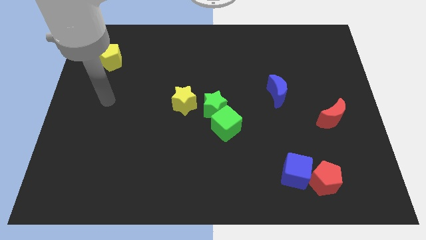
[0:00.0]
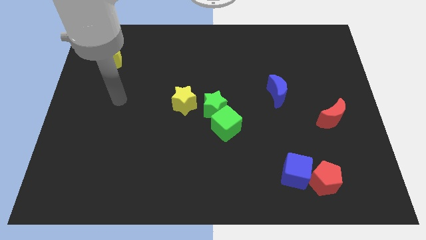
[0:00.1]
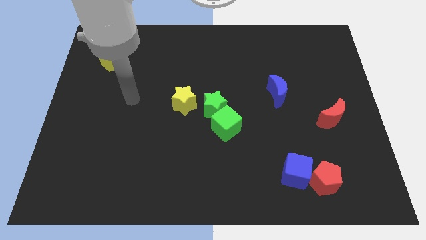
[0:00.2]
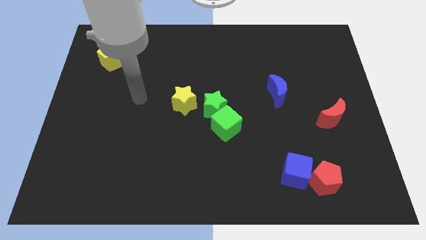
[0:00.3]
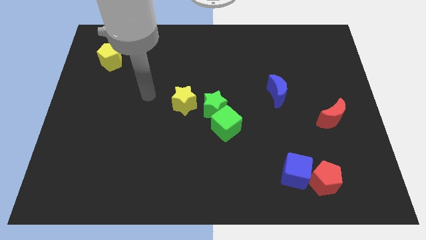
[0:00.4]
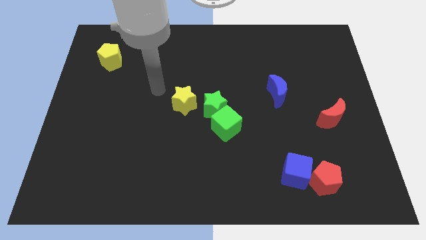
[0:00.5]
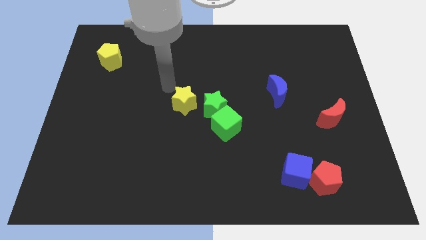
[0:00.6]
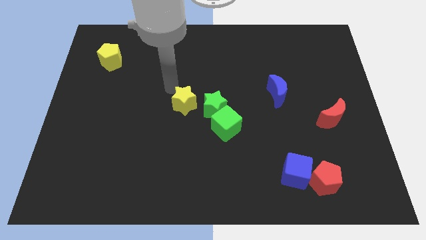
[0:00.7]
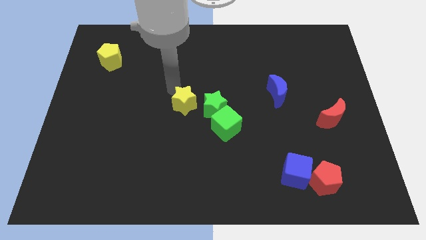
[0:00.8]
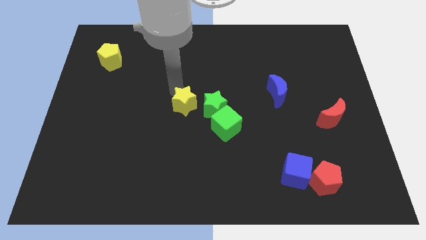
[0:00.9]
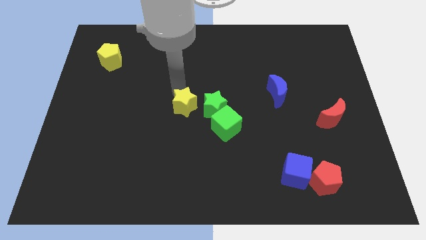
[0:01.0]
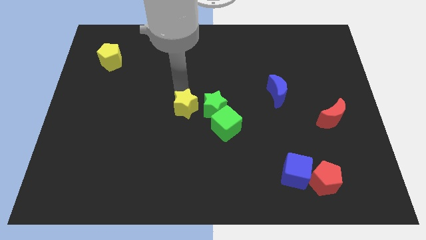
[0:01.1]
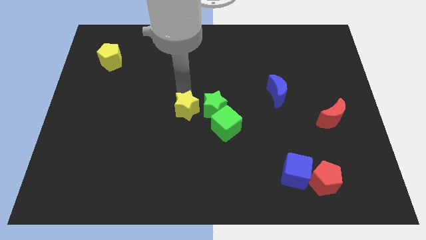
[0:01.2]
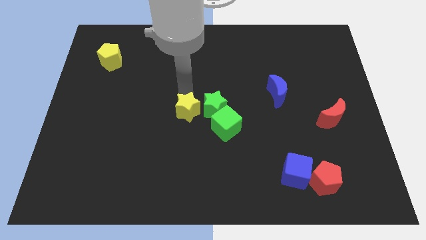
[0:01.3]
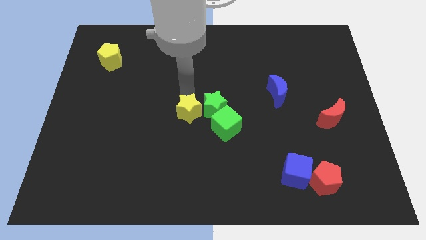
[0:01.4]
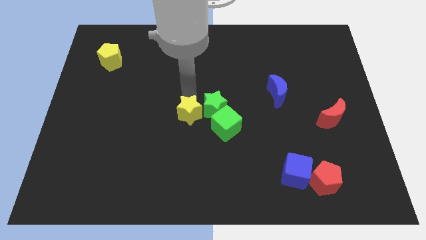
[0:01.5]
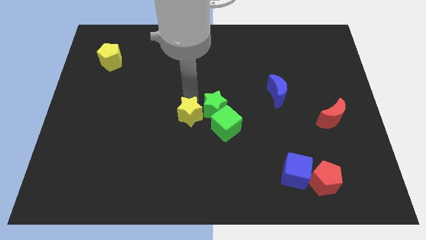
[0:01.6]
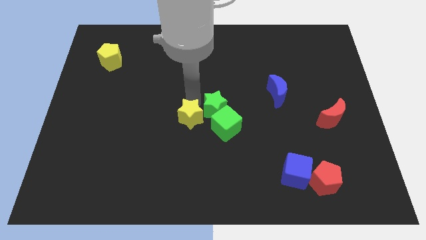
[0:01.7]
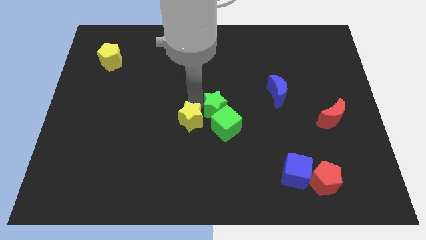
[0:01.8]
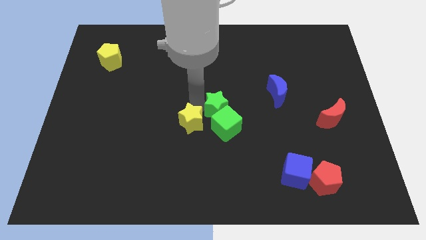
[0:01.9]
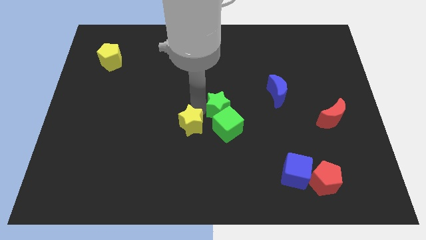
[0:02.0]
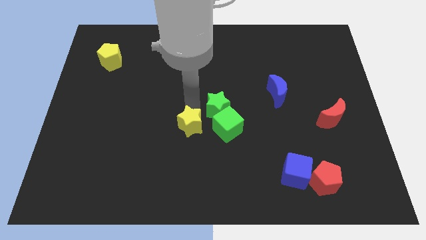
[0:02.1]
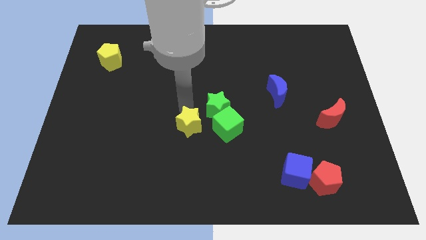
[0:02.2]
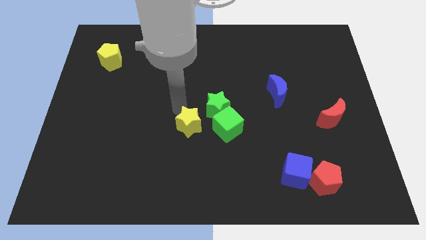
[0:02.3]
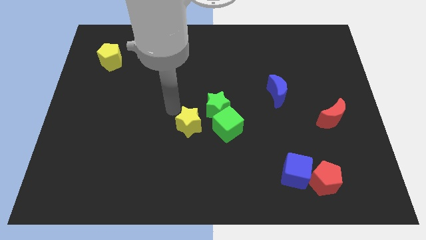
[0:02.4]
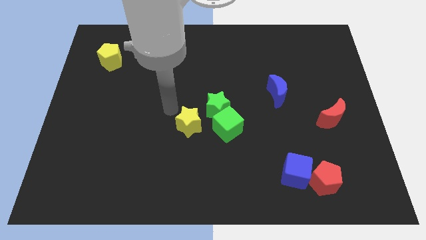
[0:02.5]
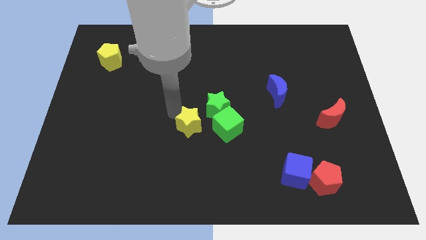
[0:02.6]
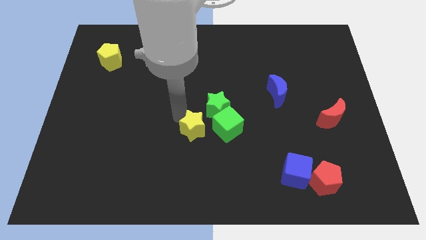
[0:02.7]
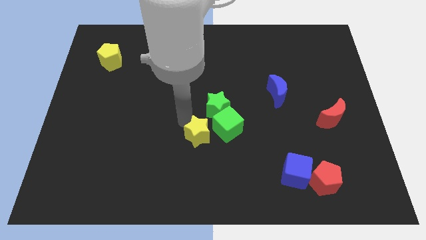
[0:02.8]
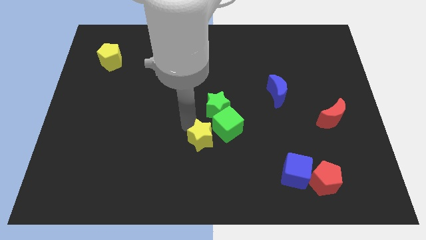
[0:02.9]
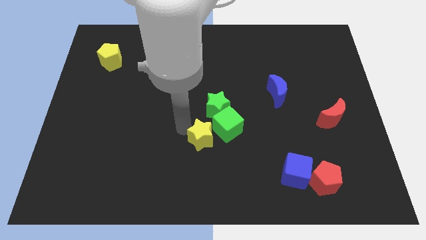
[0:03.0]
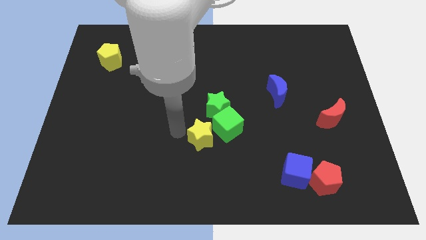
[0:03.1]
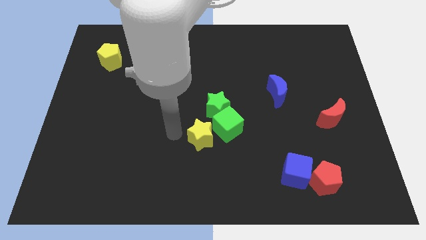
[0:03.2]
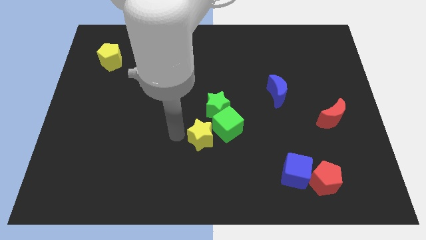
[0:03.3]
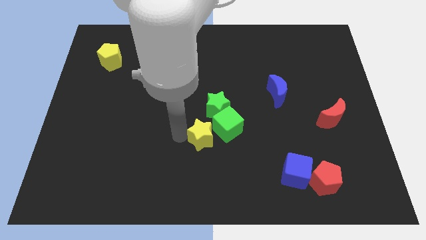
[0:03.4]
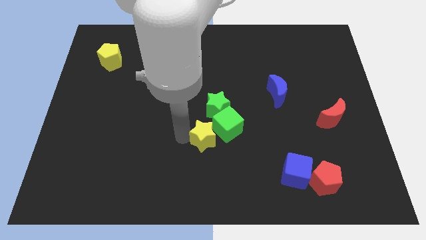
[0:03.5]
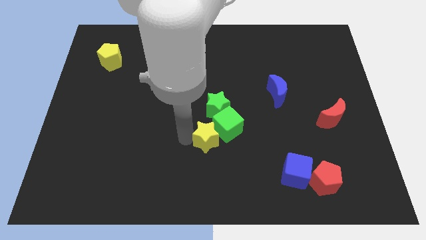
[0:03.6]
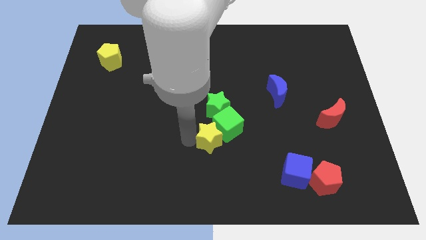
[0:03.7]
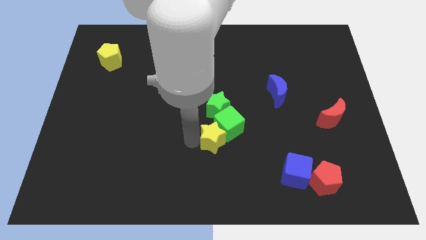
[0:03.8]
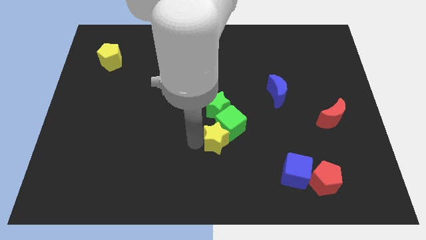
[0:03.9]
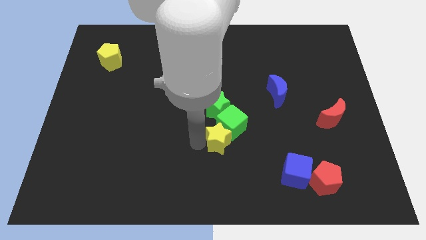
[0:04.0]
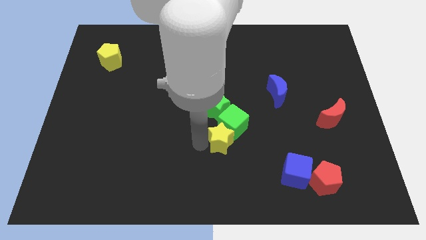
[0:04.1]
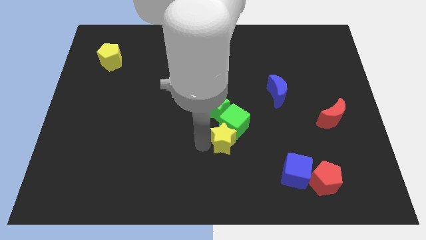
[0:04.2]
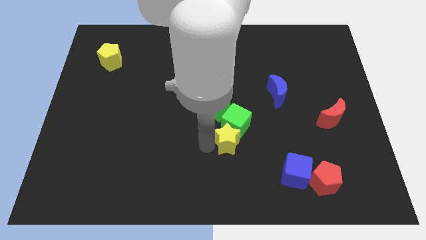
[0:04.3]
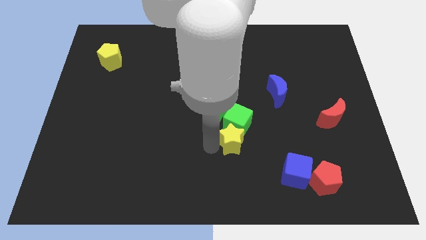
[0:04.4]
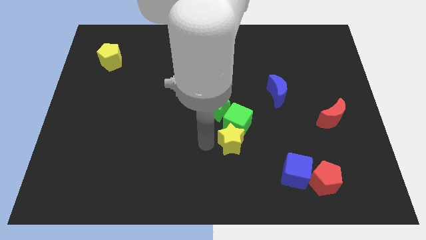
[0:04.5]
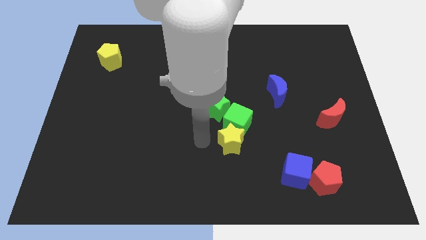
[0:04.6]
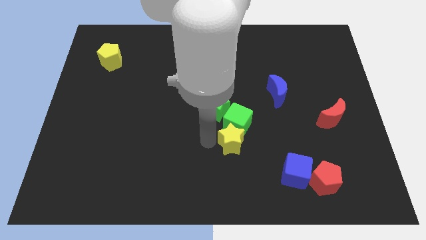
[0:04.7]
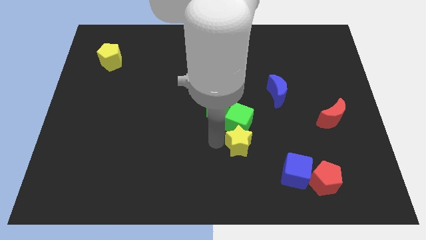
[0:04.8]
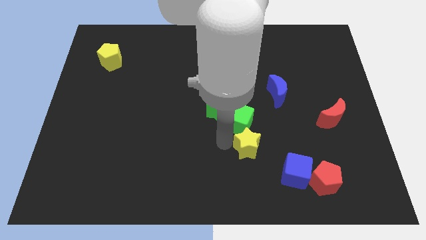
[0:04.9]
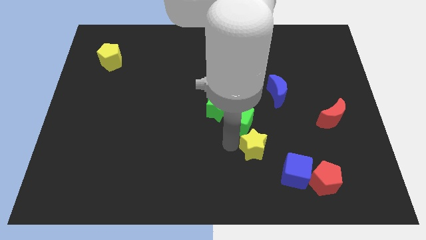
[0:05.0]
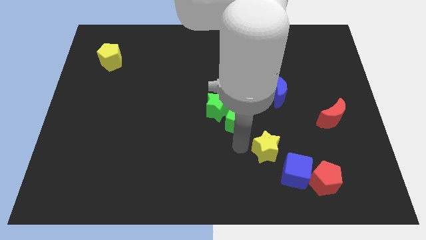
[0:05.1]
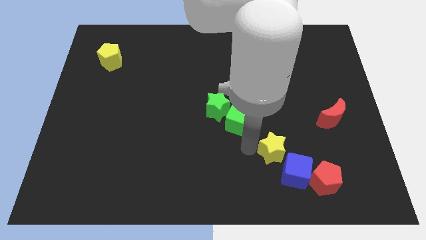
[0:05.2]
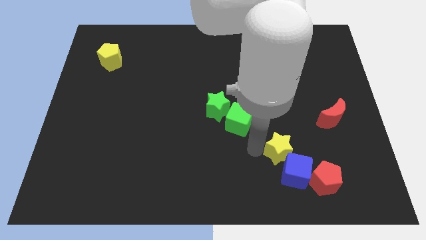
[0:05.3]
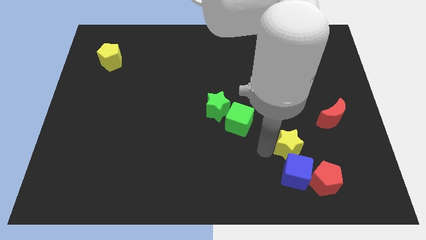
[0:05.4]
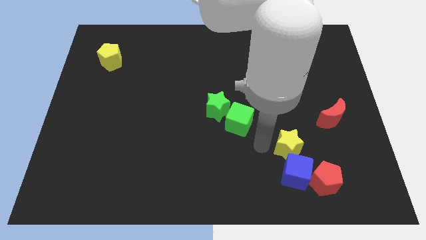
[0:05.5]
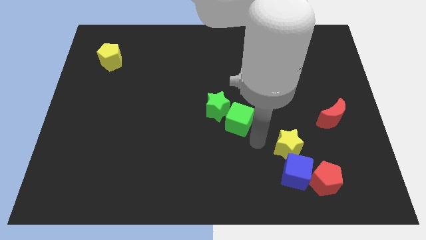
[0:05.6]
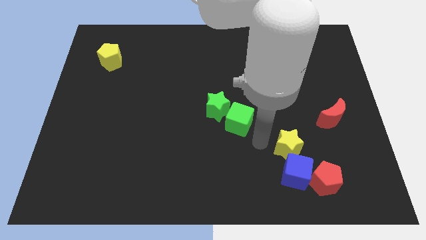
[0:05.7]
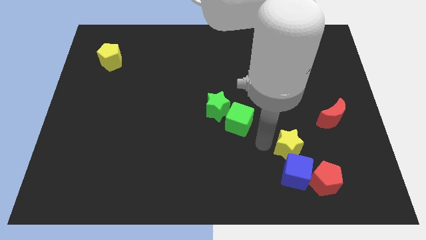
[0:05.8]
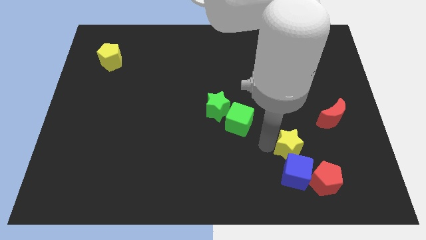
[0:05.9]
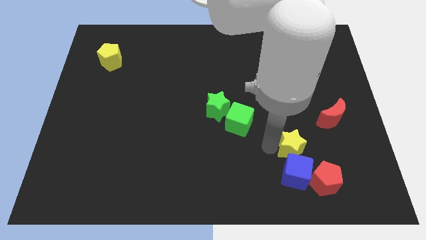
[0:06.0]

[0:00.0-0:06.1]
slide the yellow star to the top right of the blue cube
